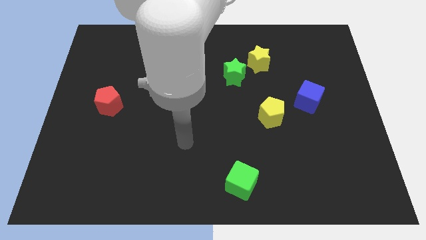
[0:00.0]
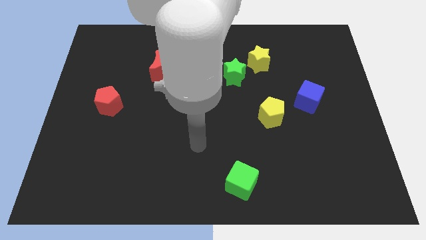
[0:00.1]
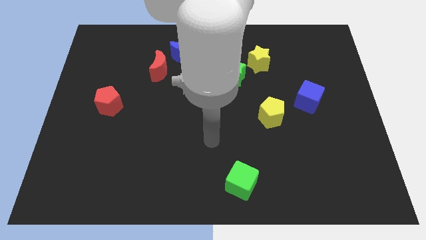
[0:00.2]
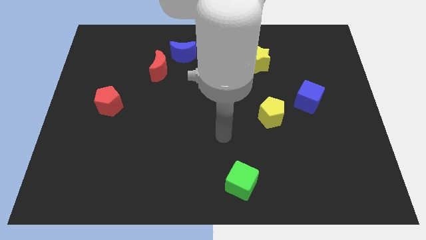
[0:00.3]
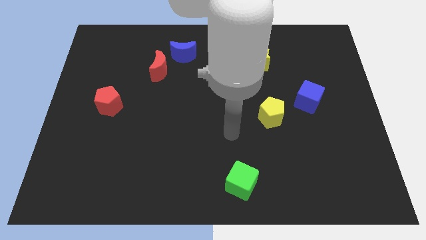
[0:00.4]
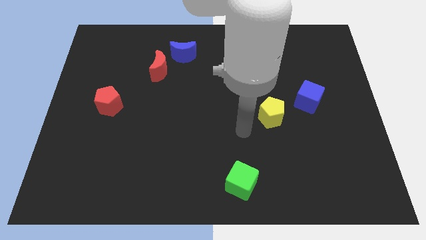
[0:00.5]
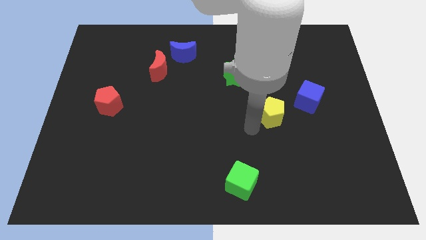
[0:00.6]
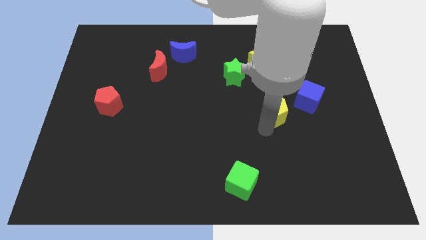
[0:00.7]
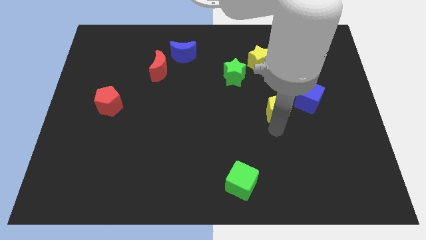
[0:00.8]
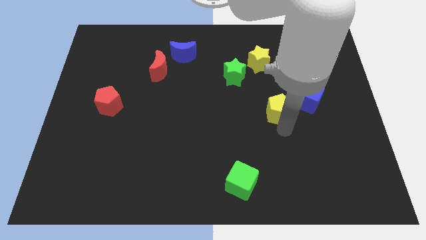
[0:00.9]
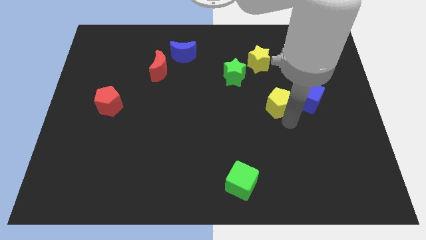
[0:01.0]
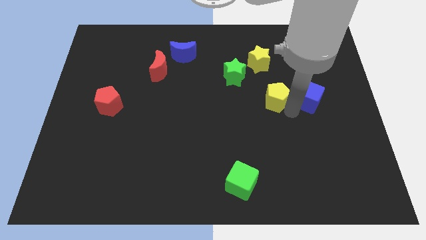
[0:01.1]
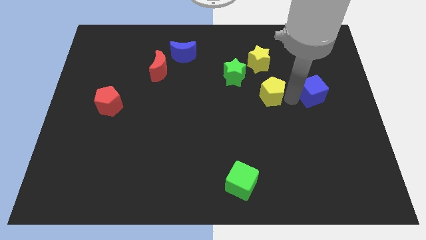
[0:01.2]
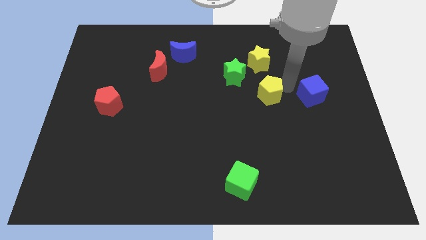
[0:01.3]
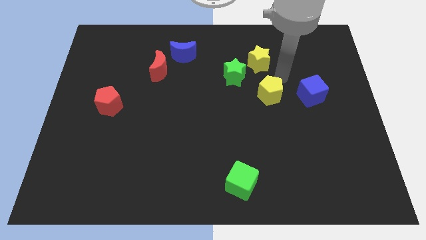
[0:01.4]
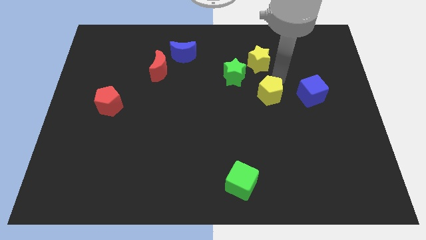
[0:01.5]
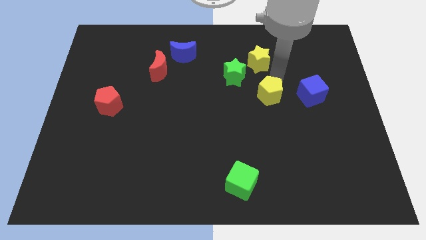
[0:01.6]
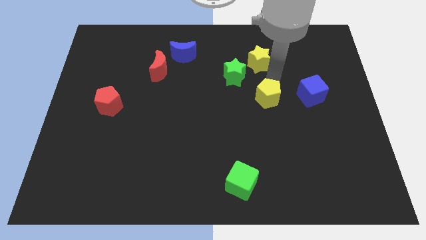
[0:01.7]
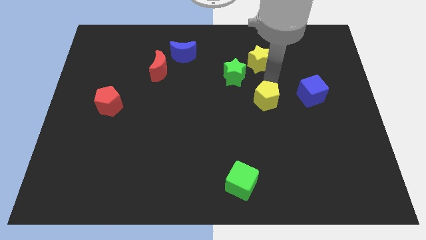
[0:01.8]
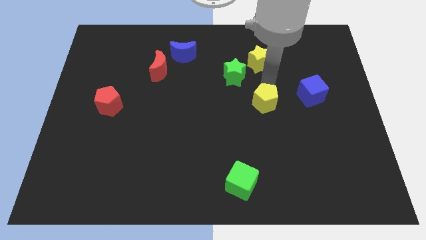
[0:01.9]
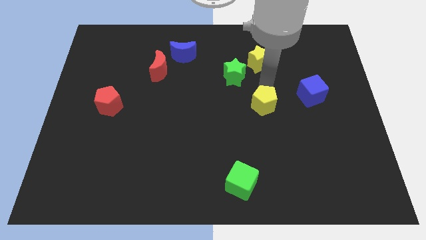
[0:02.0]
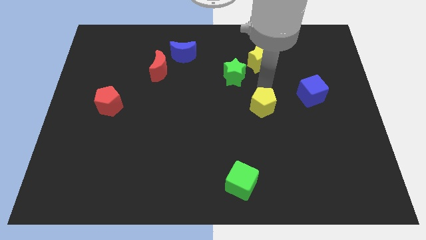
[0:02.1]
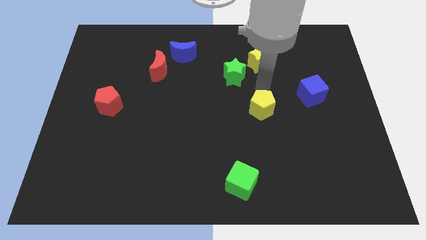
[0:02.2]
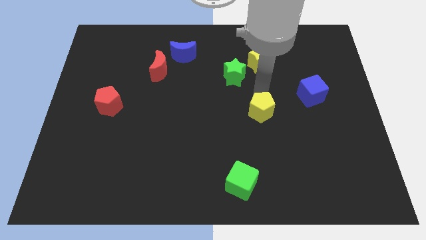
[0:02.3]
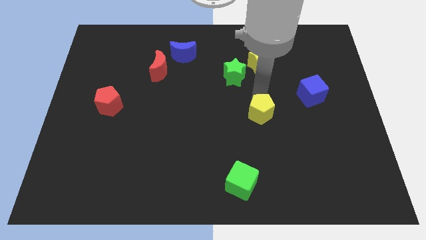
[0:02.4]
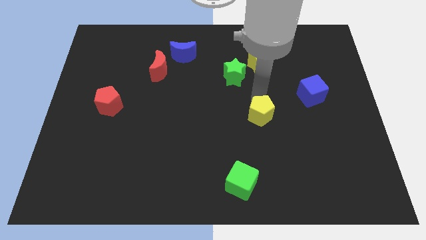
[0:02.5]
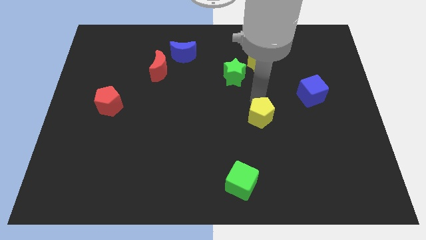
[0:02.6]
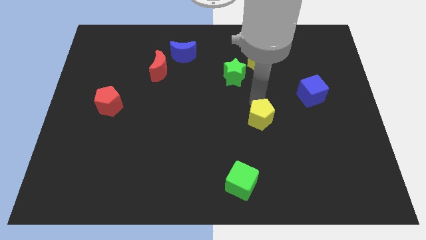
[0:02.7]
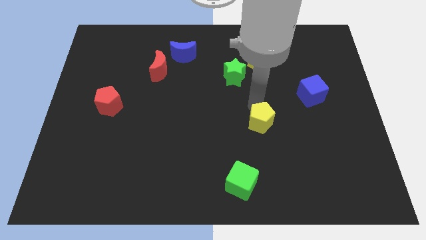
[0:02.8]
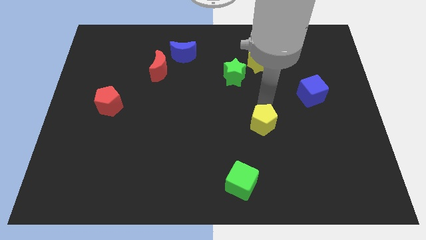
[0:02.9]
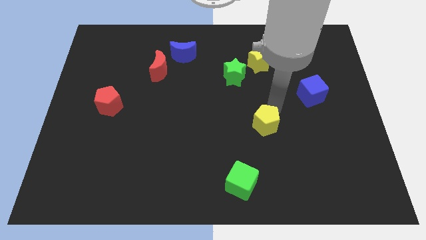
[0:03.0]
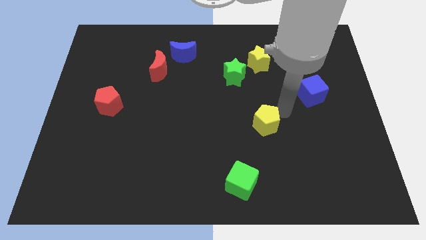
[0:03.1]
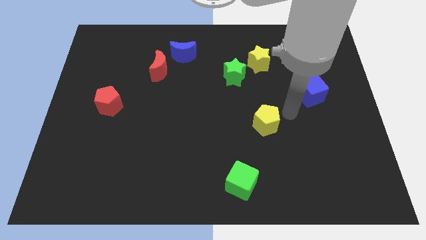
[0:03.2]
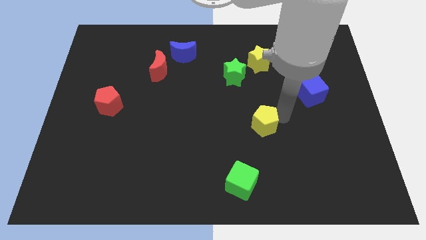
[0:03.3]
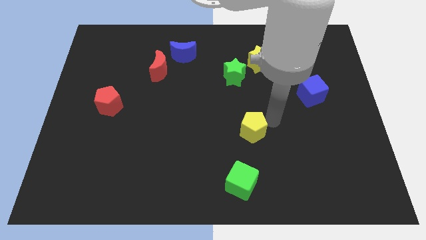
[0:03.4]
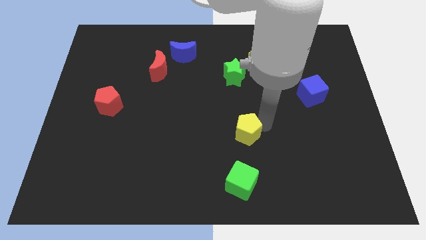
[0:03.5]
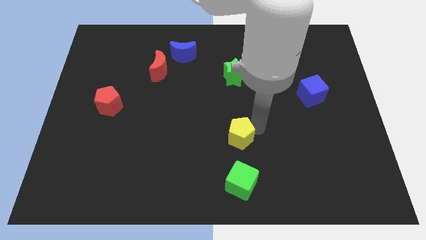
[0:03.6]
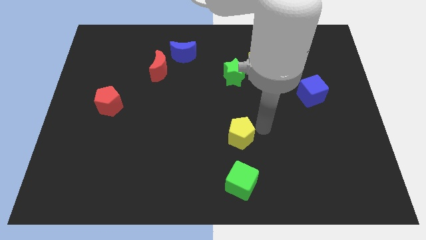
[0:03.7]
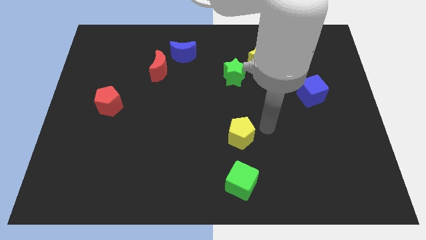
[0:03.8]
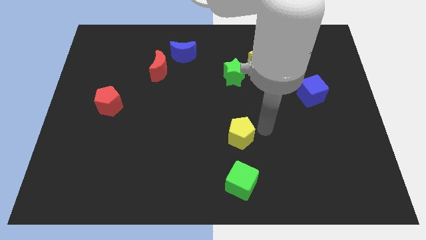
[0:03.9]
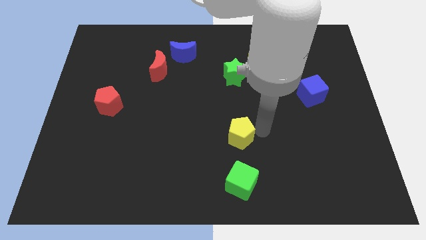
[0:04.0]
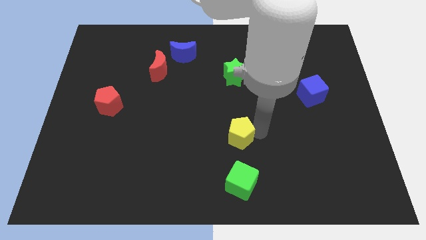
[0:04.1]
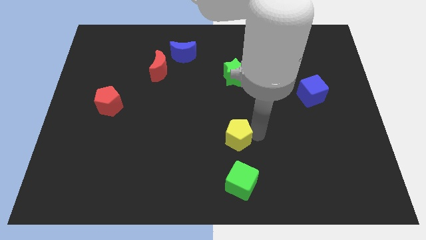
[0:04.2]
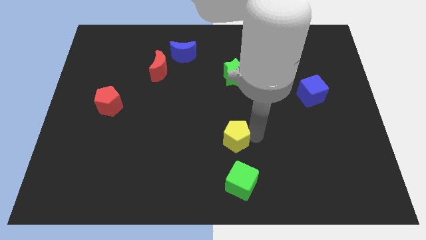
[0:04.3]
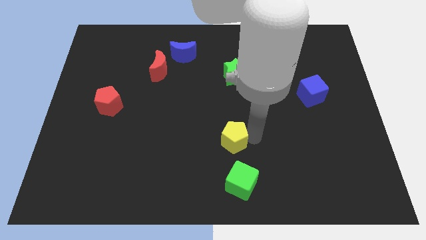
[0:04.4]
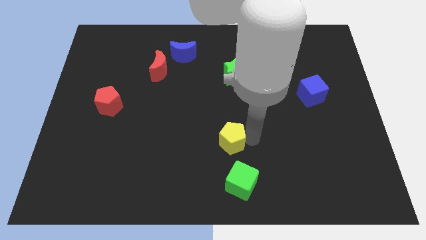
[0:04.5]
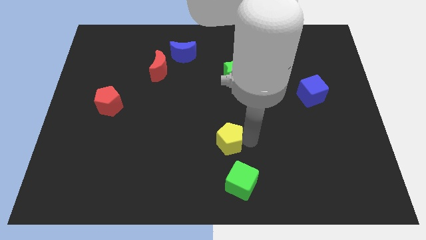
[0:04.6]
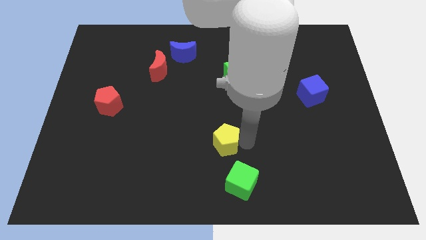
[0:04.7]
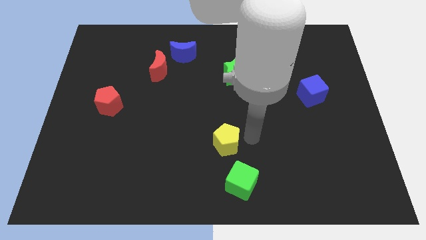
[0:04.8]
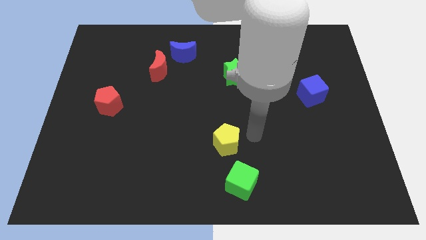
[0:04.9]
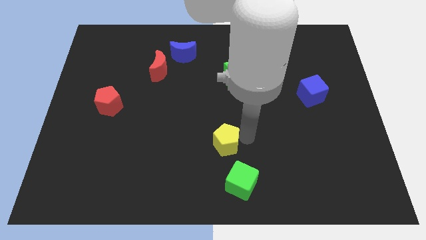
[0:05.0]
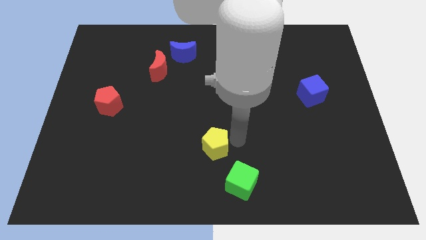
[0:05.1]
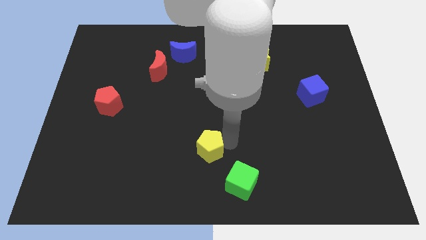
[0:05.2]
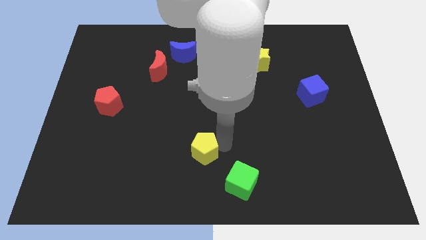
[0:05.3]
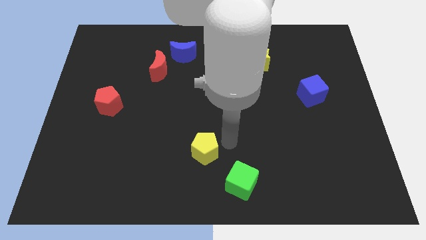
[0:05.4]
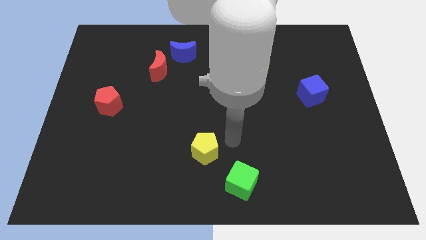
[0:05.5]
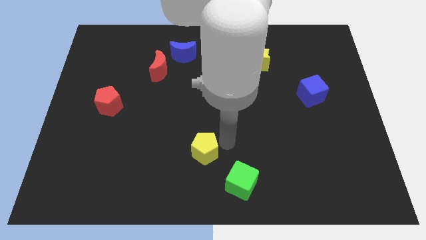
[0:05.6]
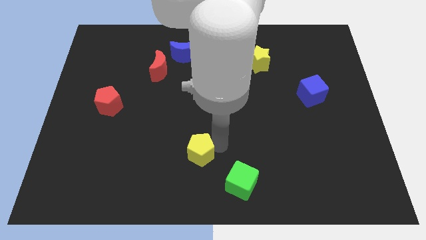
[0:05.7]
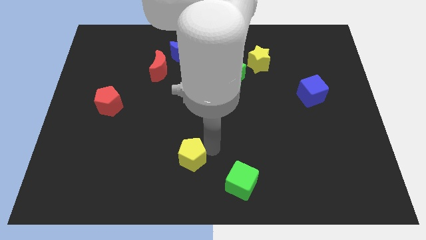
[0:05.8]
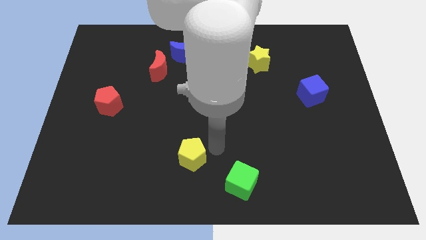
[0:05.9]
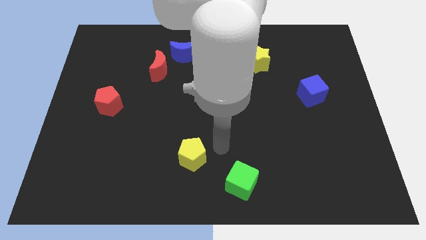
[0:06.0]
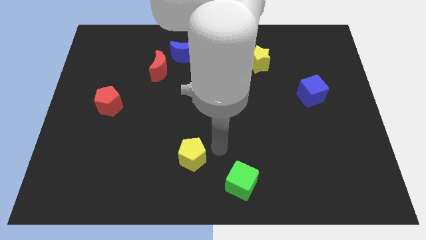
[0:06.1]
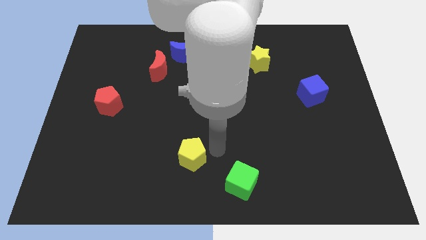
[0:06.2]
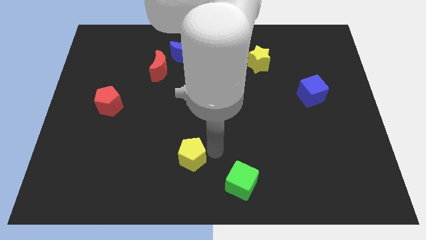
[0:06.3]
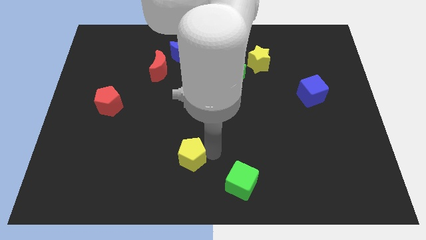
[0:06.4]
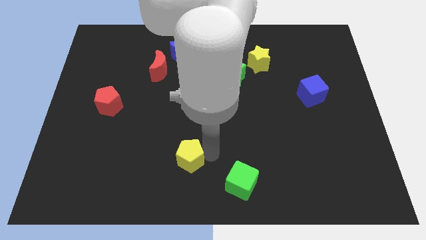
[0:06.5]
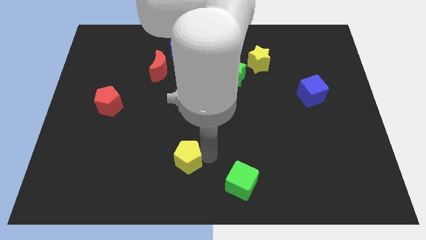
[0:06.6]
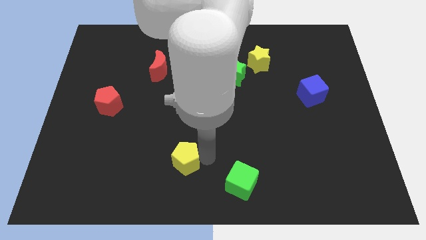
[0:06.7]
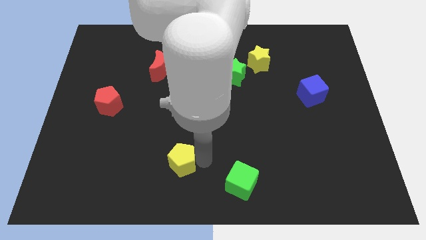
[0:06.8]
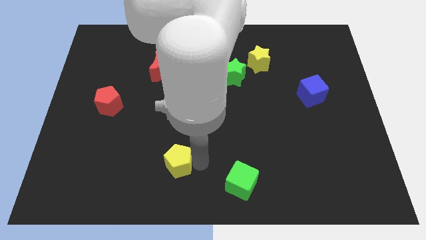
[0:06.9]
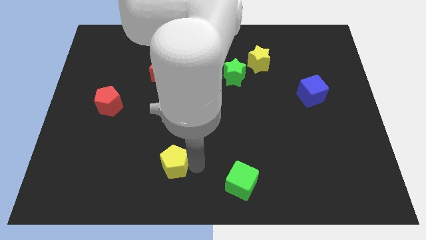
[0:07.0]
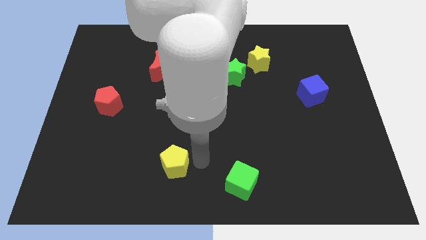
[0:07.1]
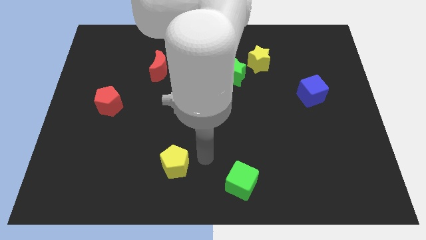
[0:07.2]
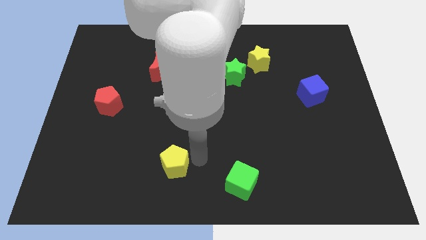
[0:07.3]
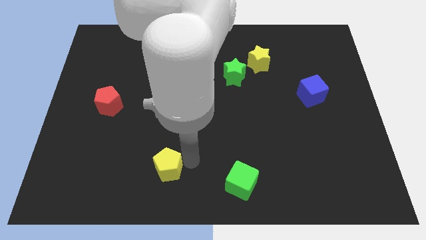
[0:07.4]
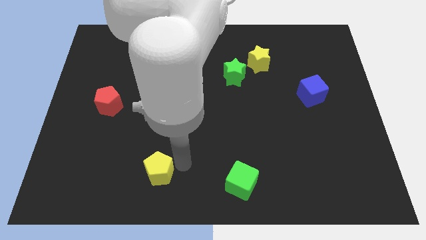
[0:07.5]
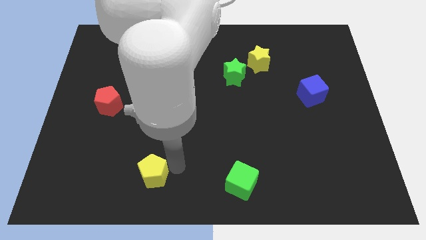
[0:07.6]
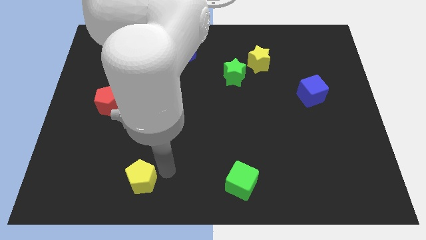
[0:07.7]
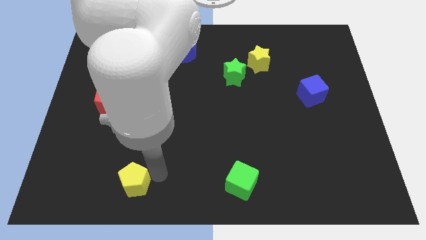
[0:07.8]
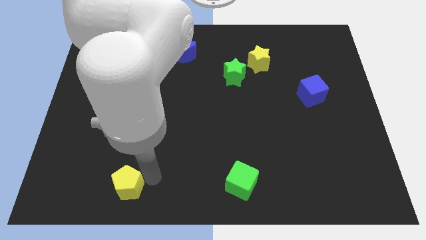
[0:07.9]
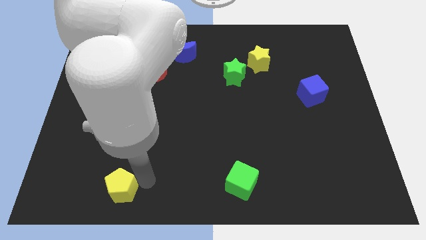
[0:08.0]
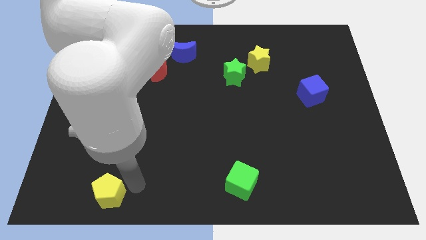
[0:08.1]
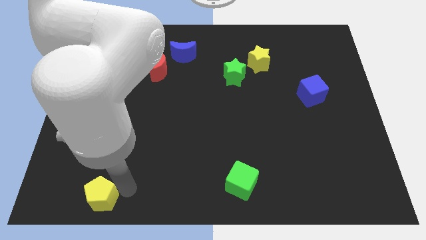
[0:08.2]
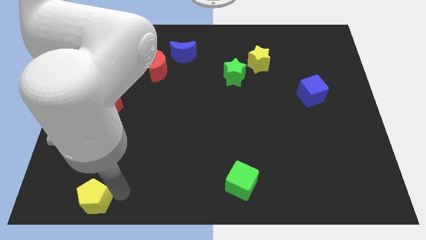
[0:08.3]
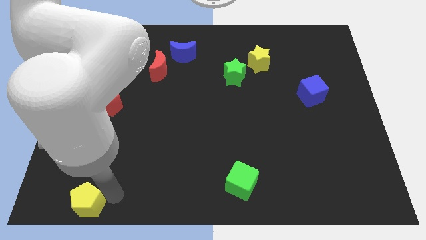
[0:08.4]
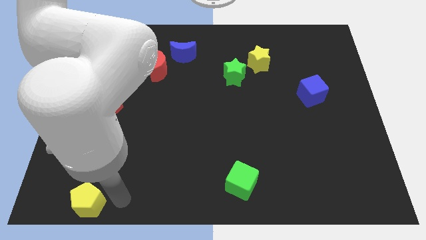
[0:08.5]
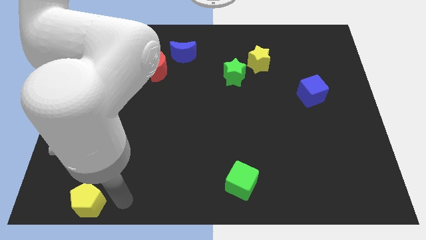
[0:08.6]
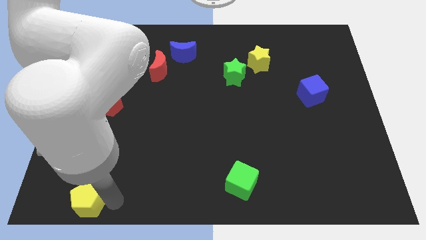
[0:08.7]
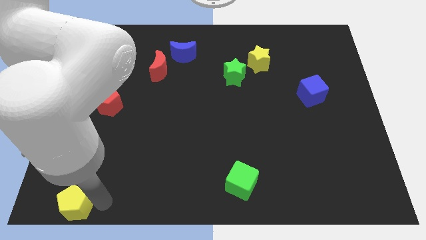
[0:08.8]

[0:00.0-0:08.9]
push the yellow pentagon to the bottom left of the board
